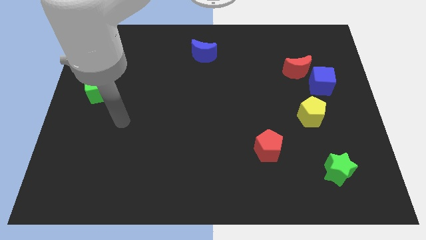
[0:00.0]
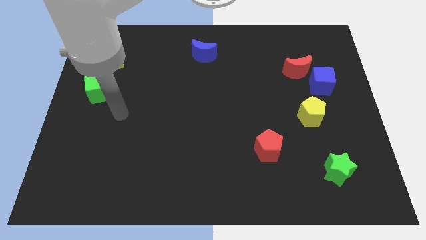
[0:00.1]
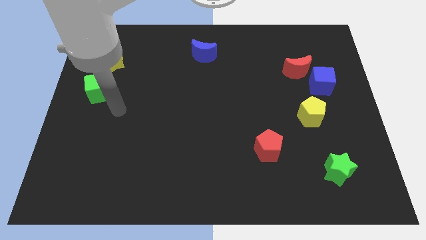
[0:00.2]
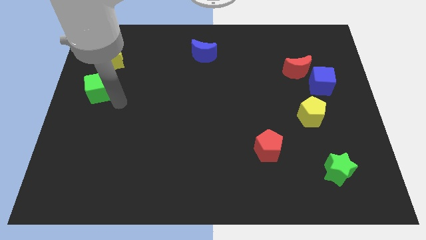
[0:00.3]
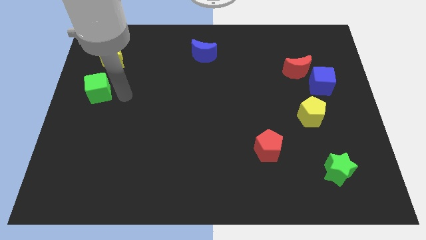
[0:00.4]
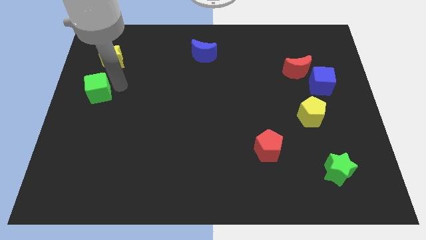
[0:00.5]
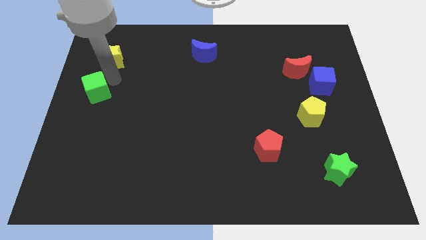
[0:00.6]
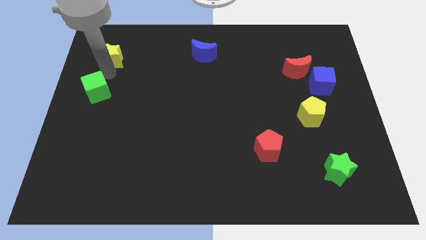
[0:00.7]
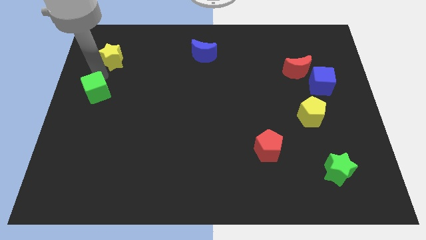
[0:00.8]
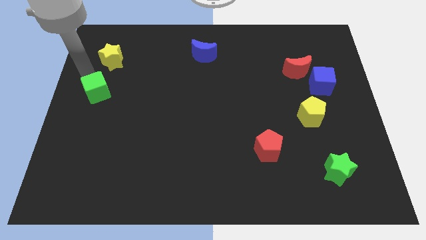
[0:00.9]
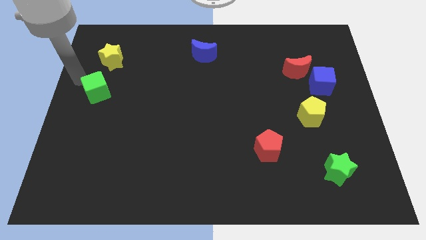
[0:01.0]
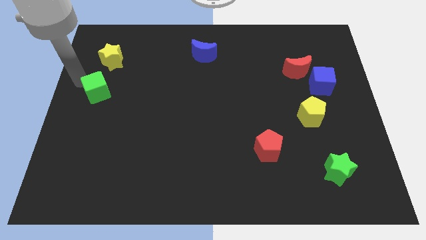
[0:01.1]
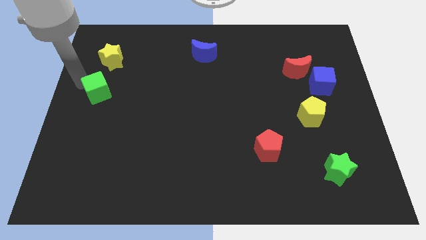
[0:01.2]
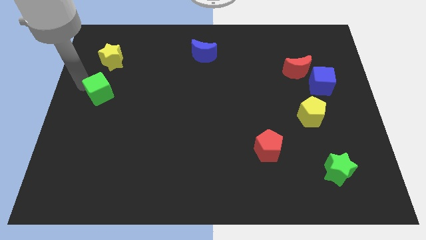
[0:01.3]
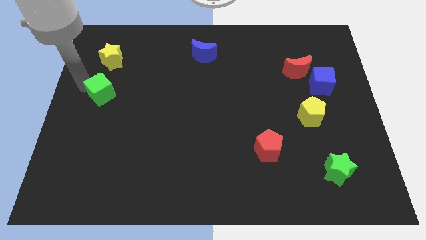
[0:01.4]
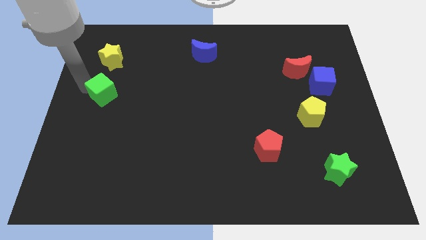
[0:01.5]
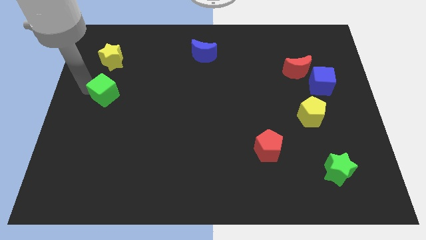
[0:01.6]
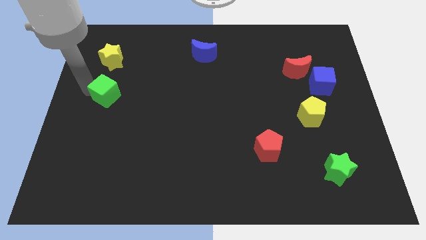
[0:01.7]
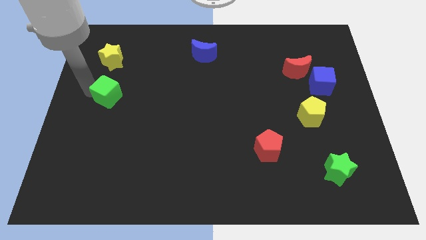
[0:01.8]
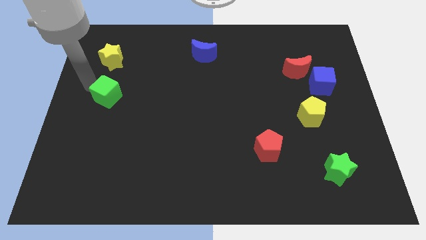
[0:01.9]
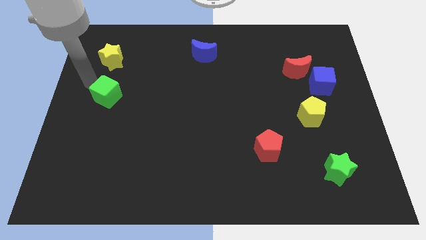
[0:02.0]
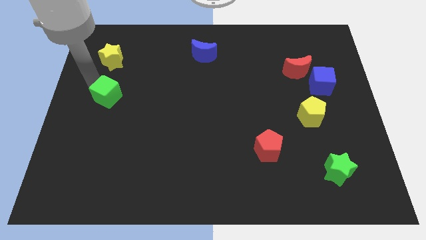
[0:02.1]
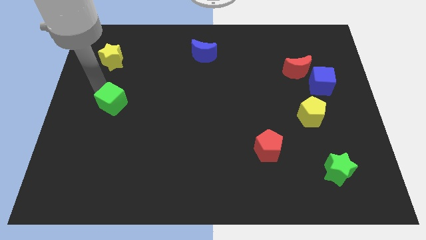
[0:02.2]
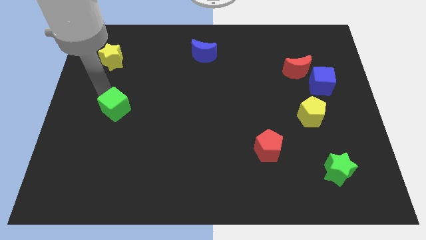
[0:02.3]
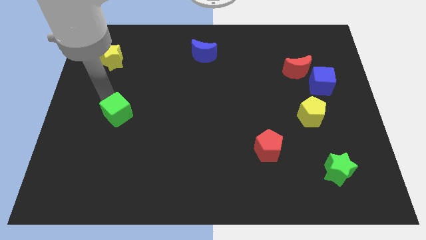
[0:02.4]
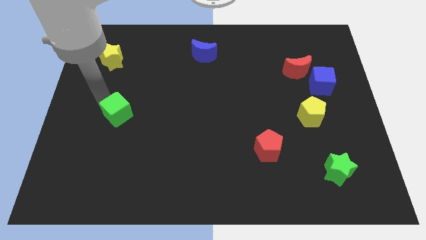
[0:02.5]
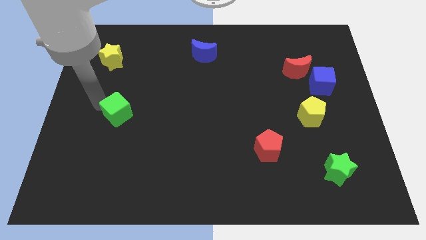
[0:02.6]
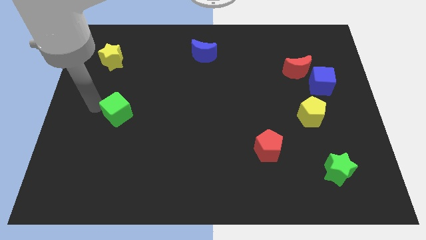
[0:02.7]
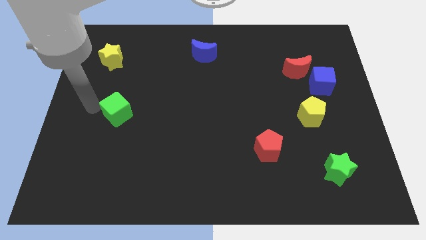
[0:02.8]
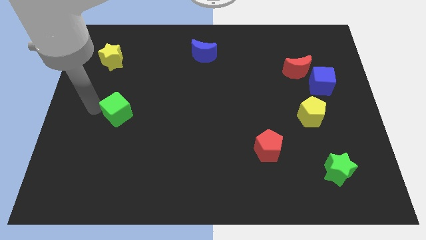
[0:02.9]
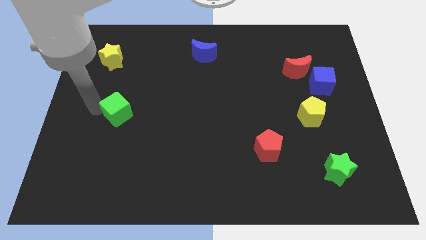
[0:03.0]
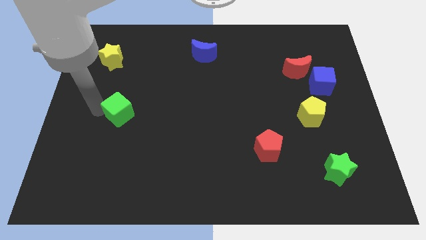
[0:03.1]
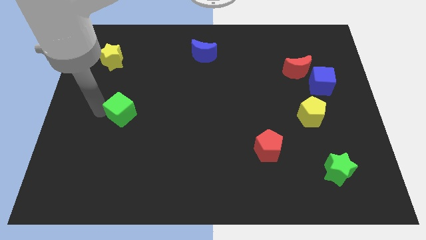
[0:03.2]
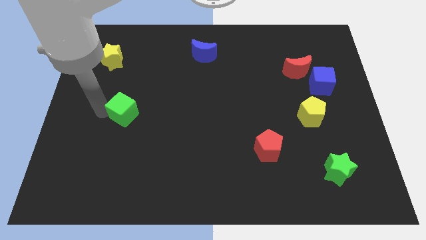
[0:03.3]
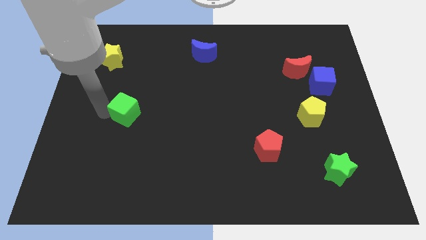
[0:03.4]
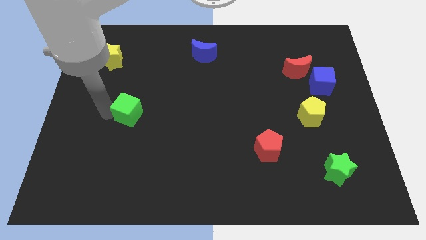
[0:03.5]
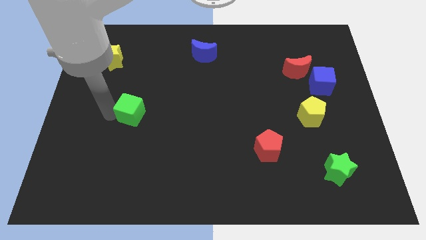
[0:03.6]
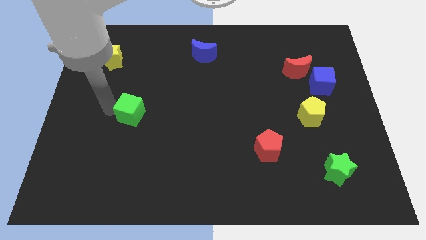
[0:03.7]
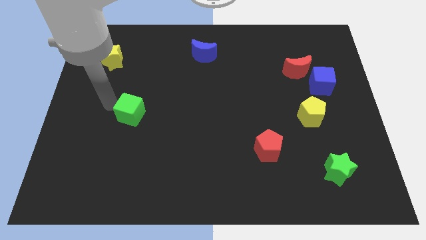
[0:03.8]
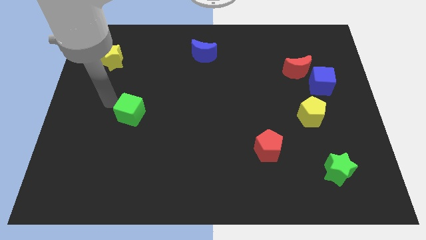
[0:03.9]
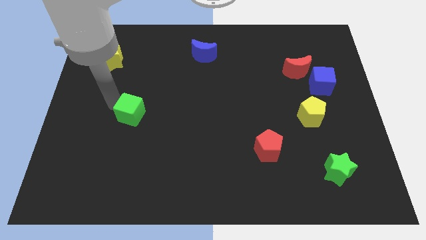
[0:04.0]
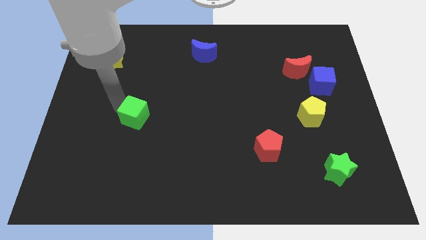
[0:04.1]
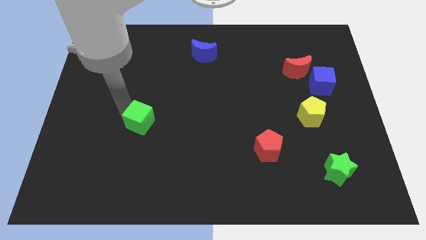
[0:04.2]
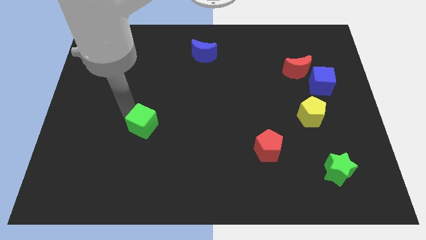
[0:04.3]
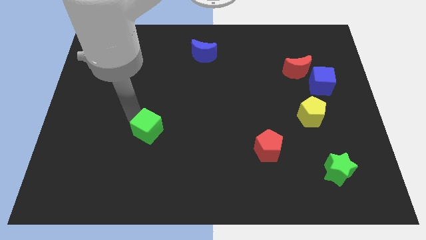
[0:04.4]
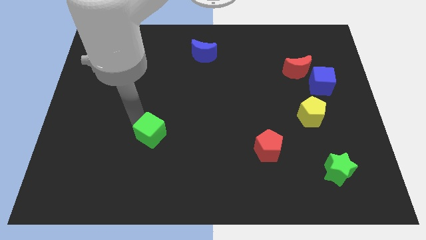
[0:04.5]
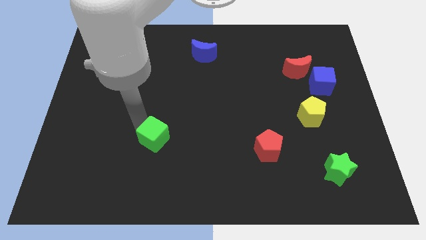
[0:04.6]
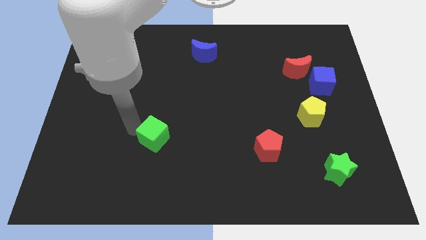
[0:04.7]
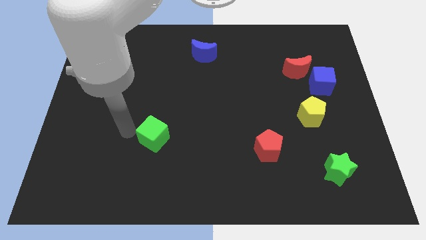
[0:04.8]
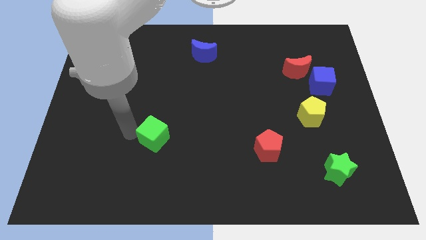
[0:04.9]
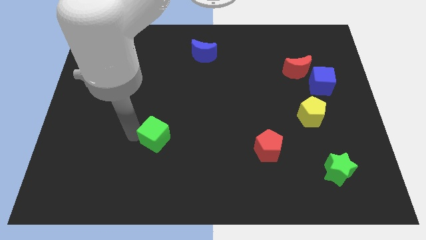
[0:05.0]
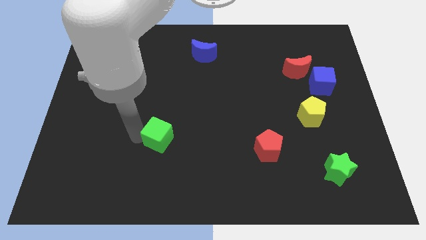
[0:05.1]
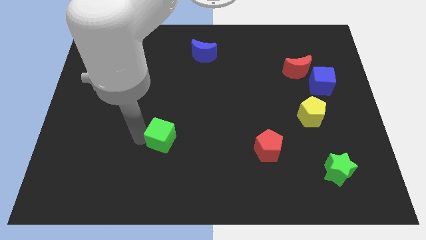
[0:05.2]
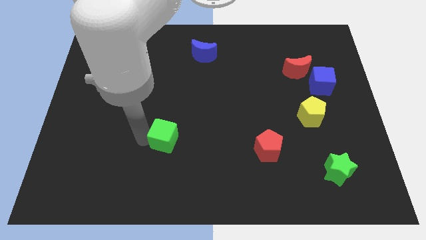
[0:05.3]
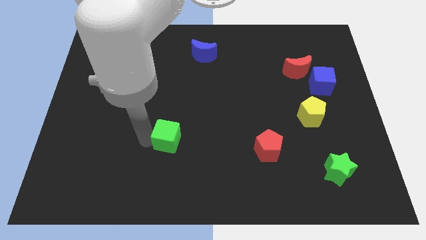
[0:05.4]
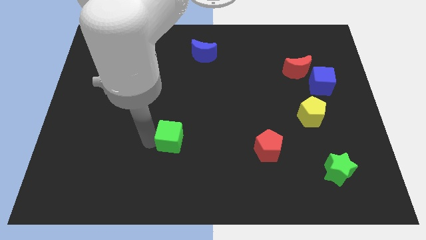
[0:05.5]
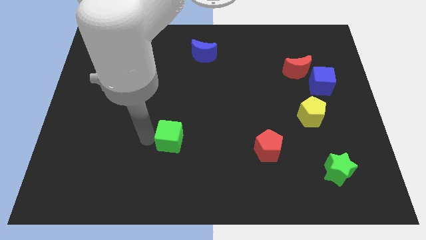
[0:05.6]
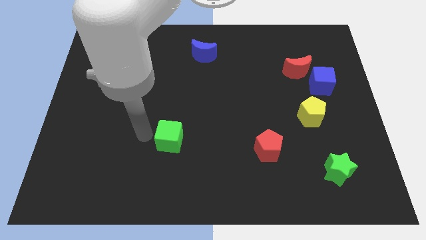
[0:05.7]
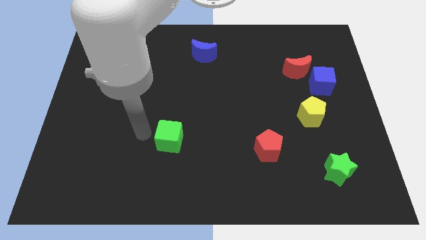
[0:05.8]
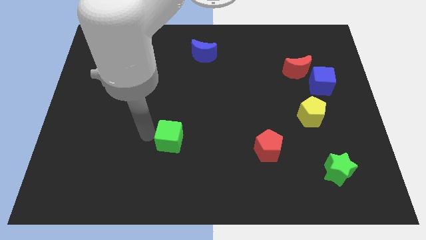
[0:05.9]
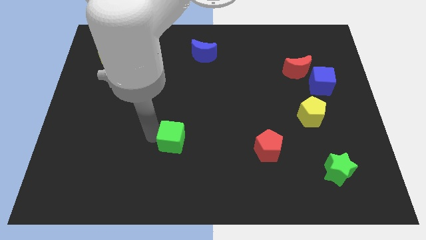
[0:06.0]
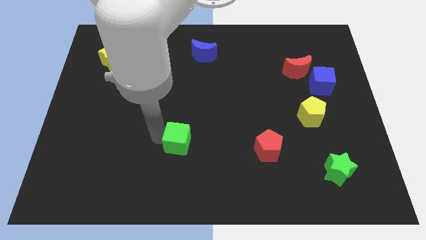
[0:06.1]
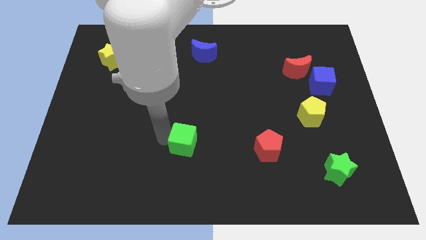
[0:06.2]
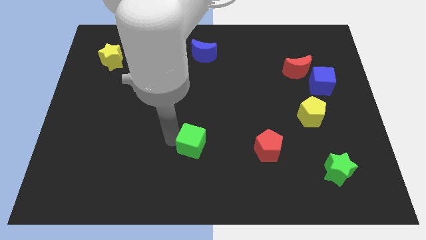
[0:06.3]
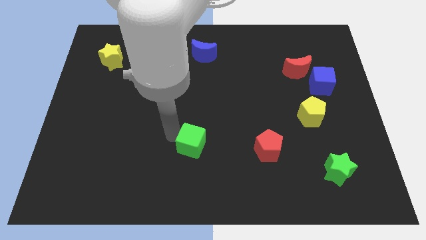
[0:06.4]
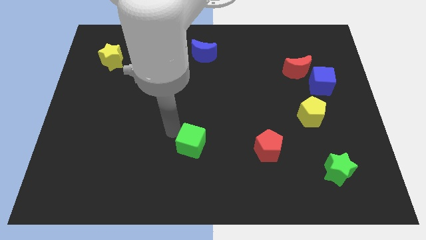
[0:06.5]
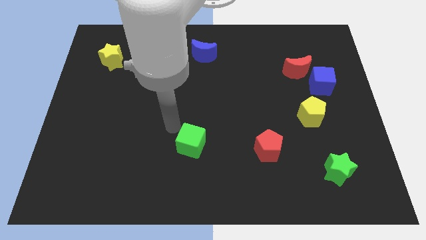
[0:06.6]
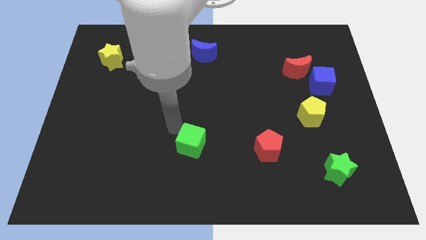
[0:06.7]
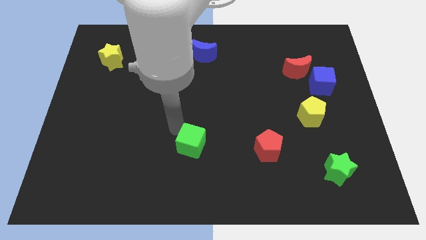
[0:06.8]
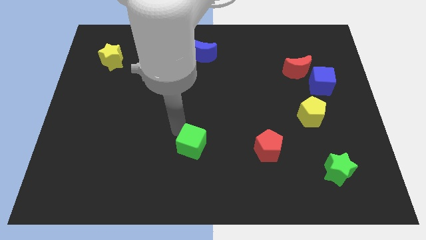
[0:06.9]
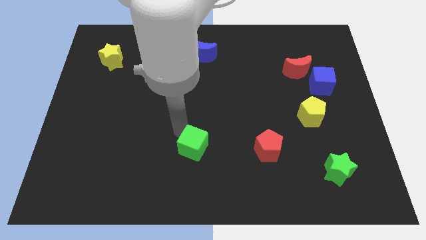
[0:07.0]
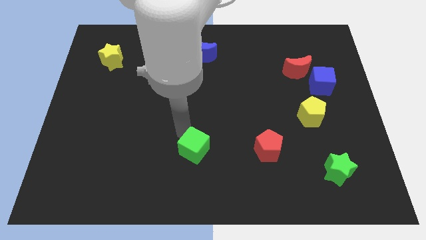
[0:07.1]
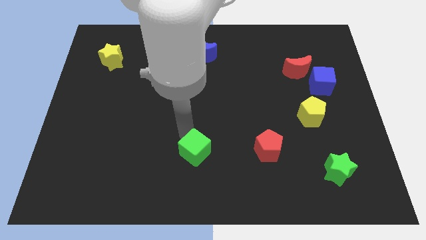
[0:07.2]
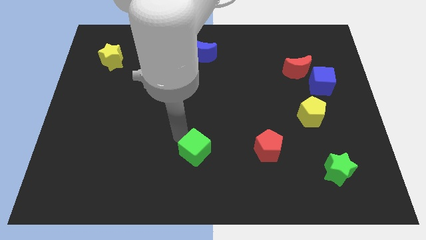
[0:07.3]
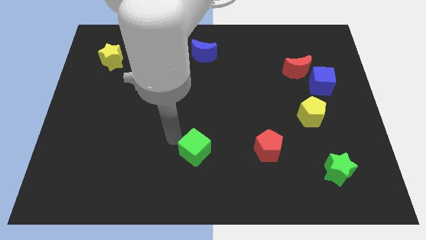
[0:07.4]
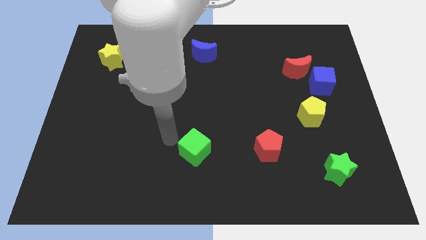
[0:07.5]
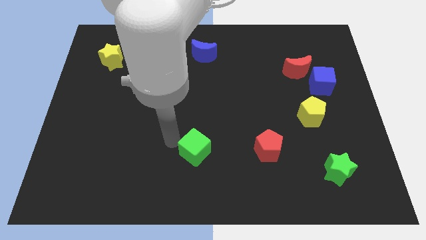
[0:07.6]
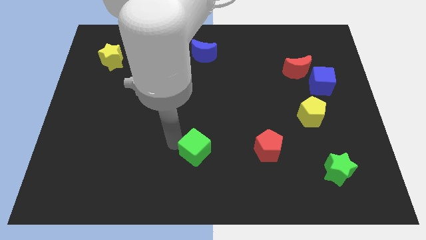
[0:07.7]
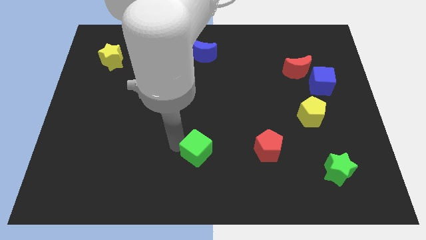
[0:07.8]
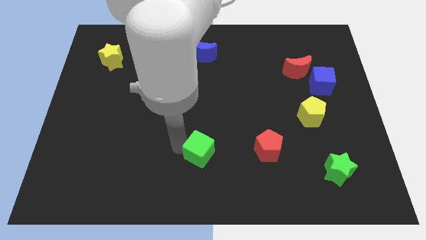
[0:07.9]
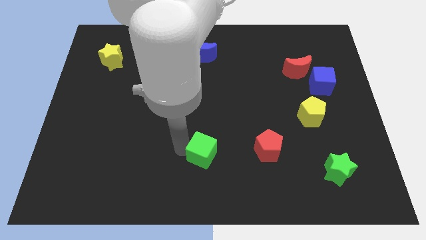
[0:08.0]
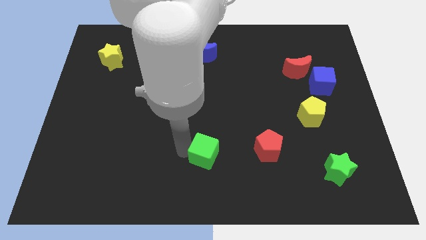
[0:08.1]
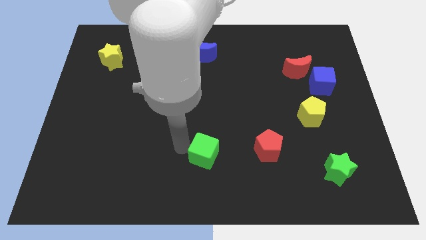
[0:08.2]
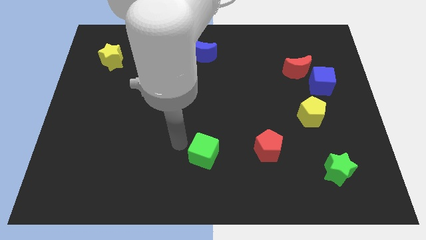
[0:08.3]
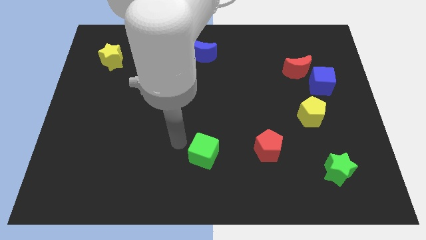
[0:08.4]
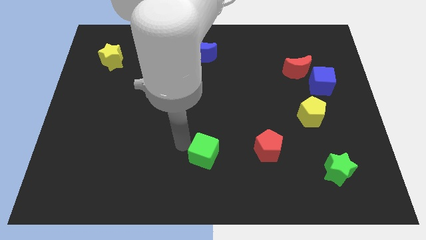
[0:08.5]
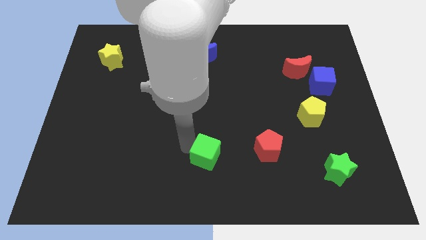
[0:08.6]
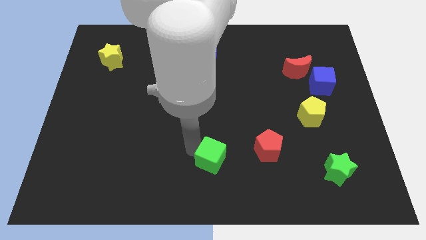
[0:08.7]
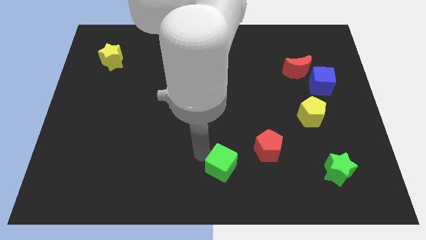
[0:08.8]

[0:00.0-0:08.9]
put the green cube to the bottom left side of the red pentagon
